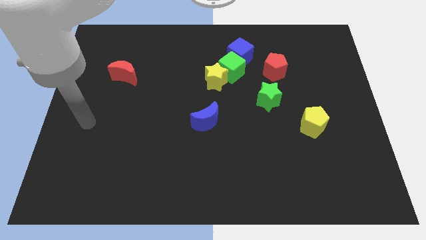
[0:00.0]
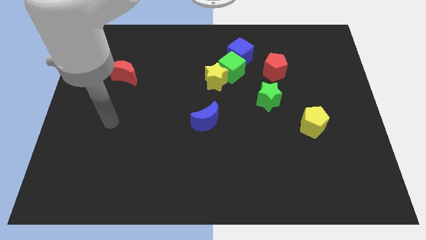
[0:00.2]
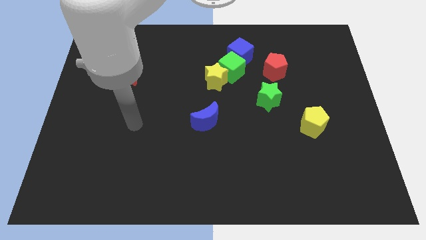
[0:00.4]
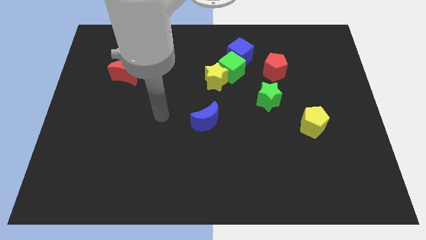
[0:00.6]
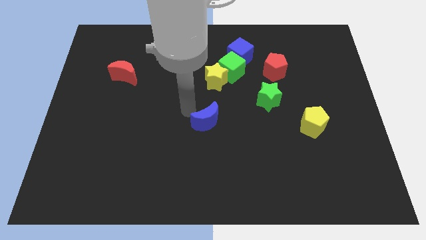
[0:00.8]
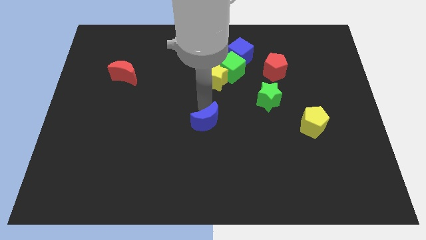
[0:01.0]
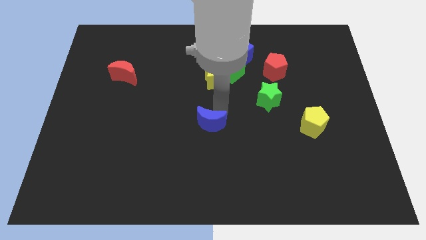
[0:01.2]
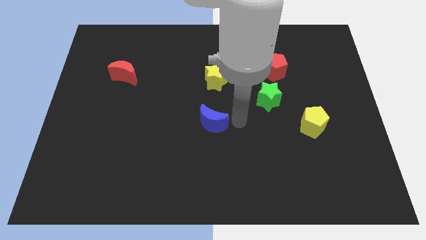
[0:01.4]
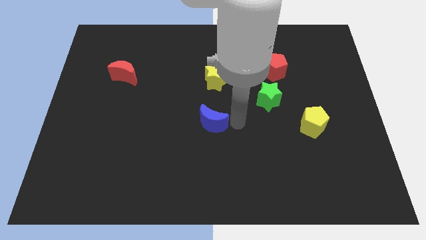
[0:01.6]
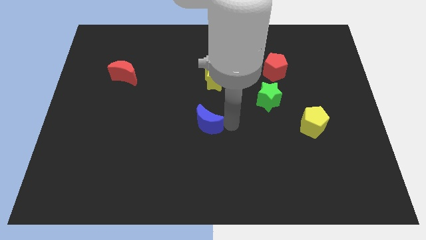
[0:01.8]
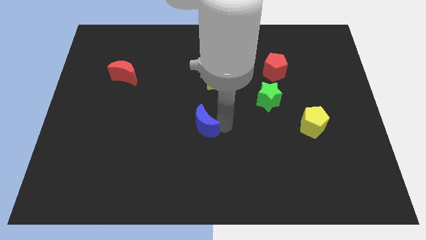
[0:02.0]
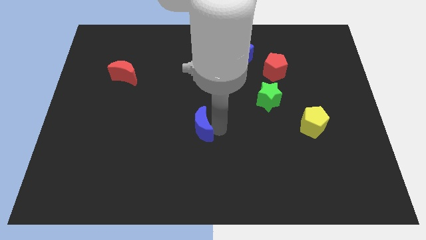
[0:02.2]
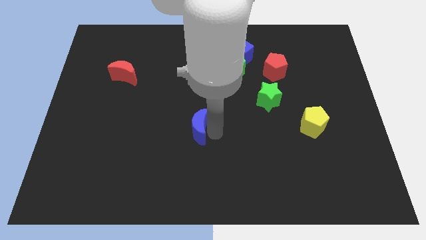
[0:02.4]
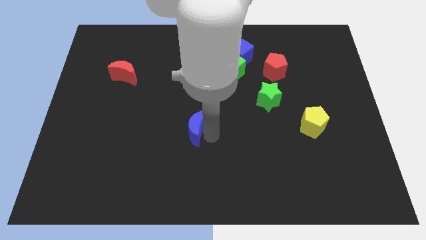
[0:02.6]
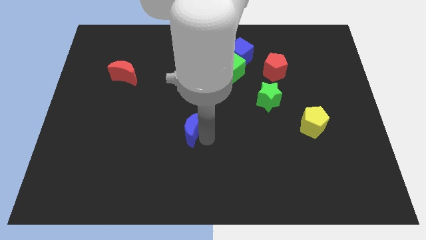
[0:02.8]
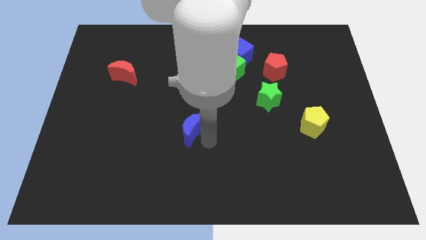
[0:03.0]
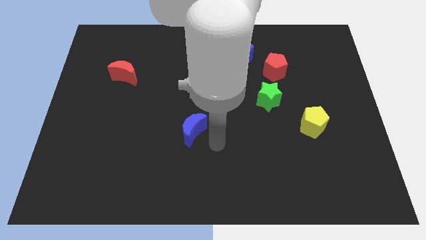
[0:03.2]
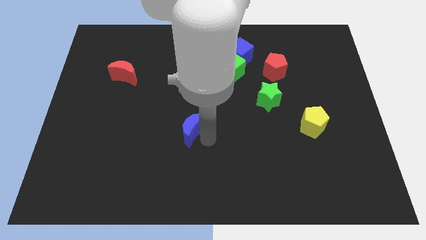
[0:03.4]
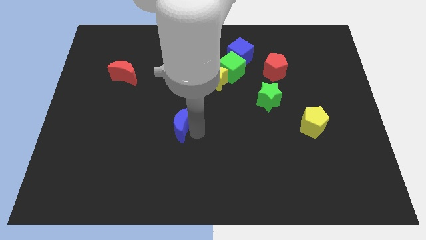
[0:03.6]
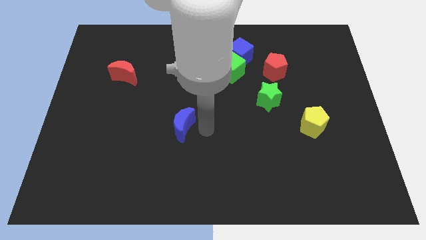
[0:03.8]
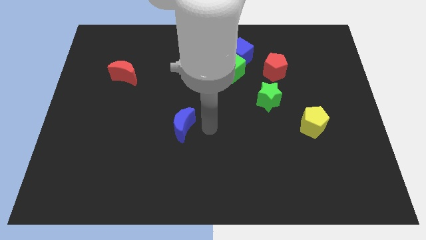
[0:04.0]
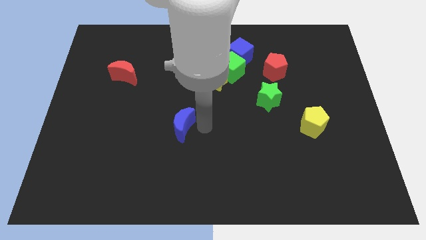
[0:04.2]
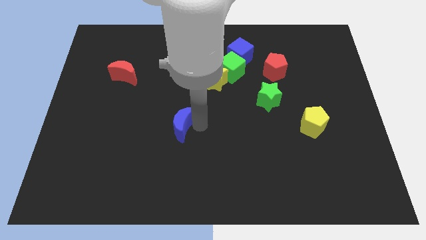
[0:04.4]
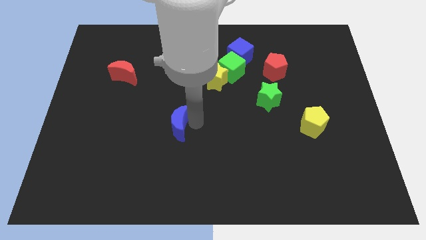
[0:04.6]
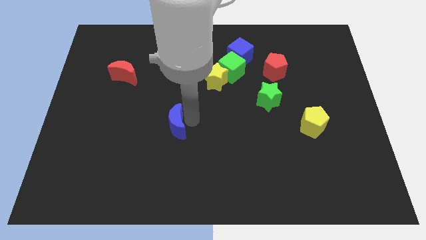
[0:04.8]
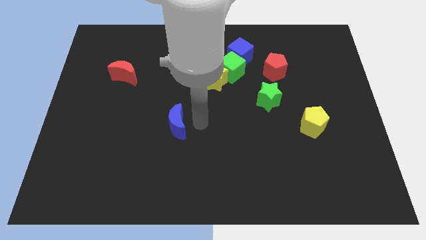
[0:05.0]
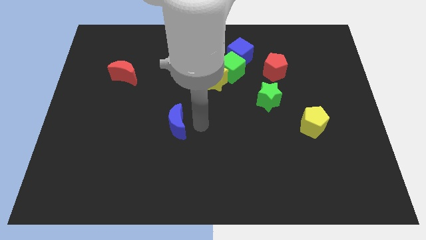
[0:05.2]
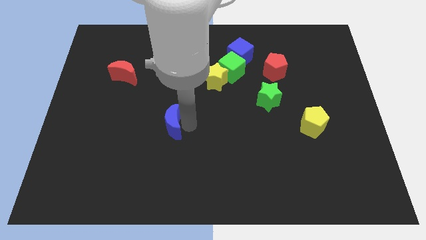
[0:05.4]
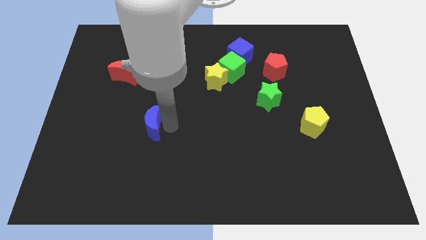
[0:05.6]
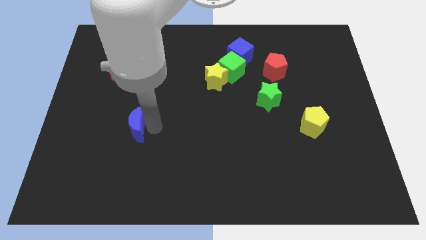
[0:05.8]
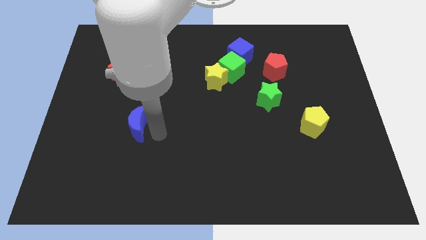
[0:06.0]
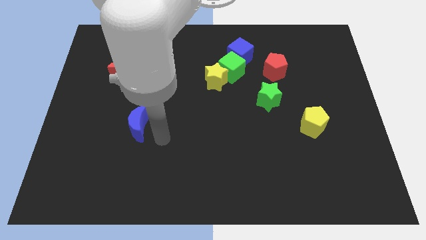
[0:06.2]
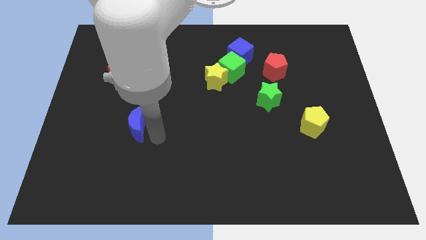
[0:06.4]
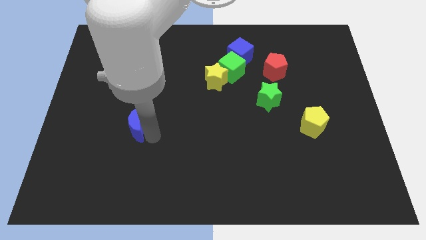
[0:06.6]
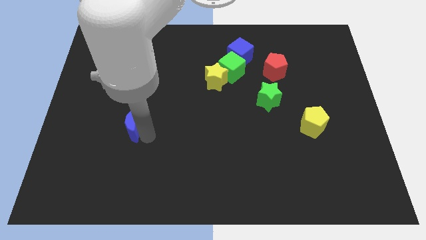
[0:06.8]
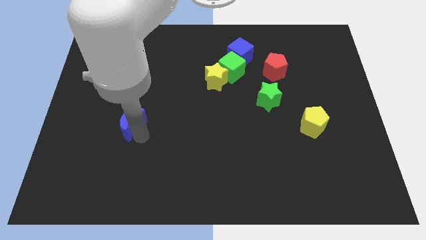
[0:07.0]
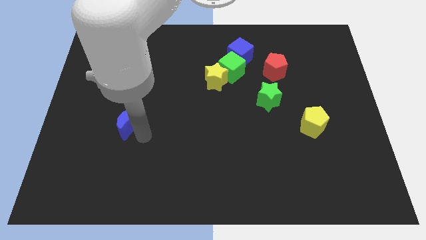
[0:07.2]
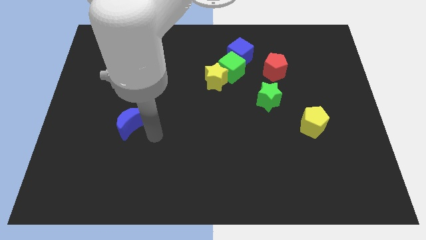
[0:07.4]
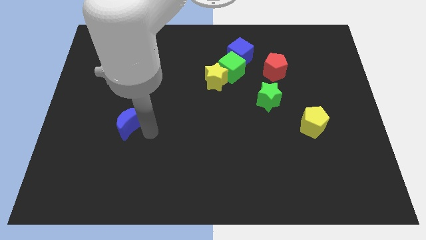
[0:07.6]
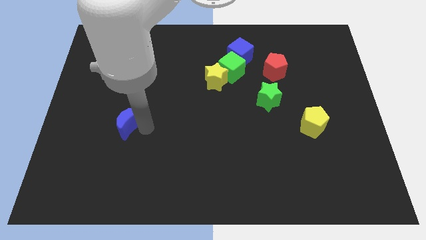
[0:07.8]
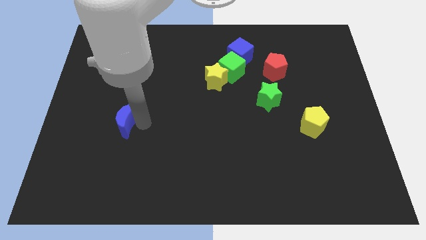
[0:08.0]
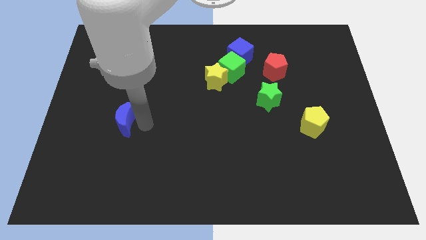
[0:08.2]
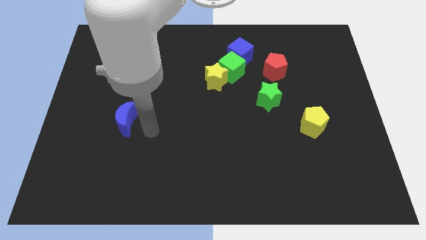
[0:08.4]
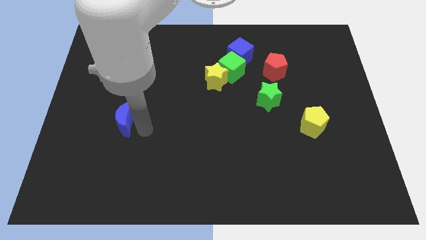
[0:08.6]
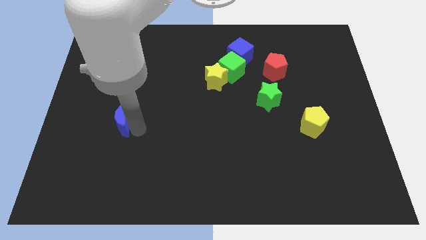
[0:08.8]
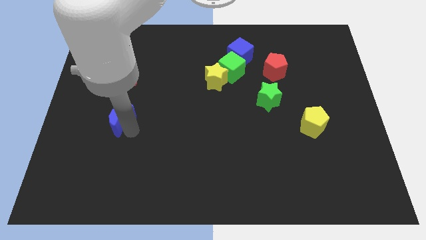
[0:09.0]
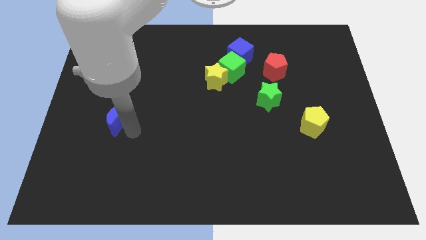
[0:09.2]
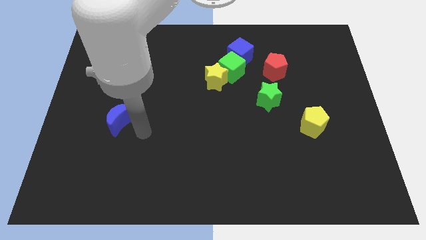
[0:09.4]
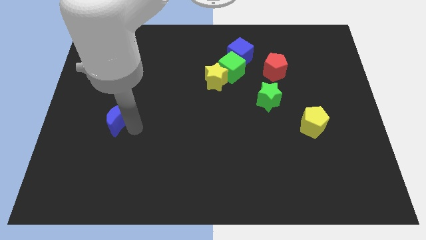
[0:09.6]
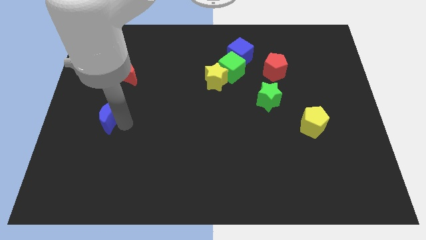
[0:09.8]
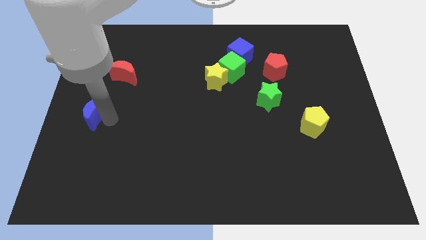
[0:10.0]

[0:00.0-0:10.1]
move the blue moon to the left side of the board

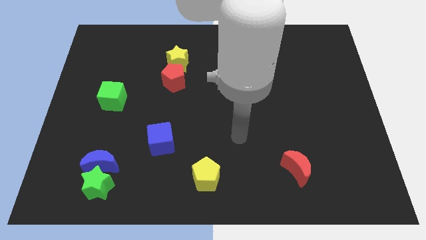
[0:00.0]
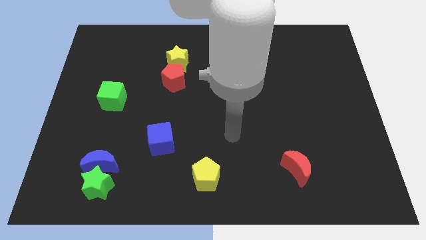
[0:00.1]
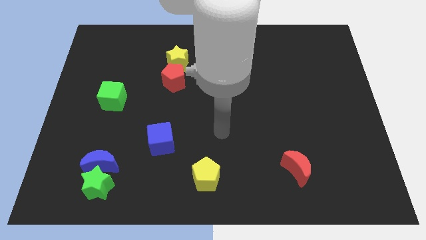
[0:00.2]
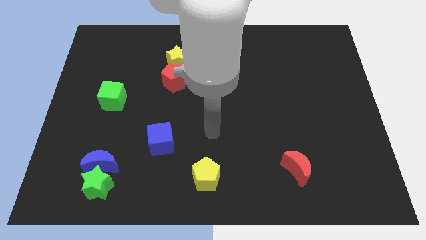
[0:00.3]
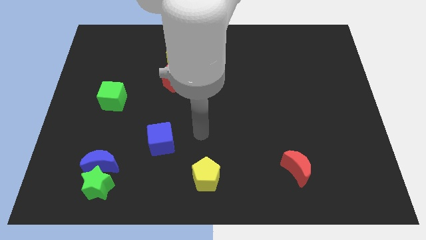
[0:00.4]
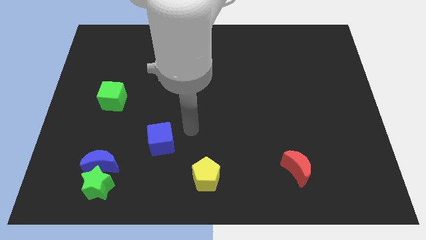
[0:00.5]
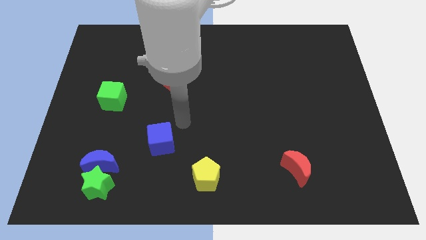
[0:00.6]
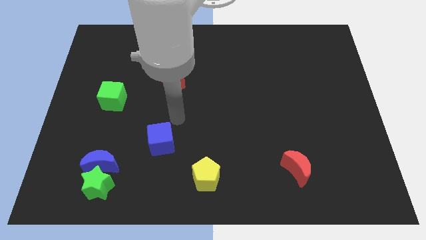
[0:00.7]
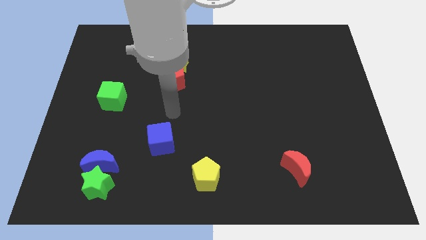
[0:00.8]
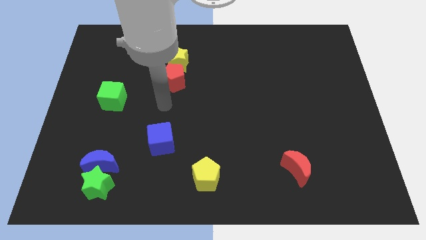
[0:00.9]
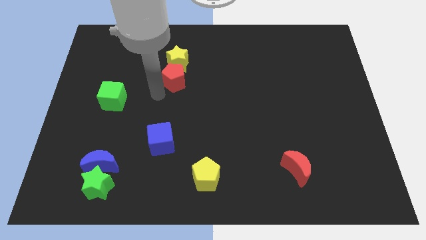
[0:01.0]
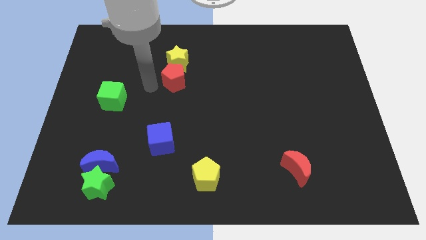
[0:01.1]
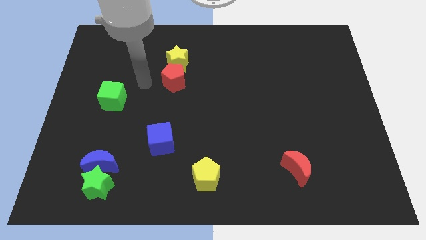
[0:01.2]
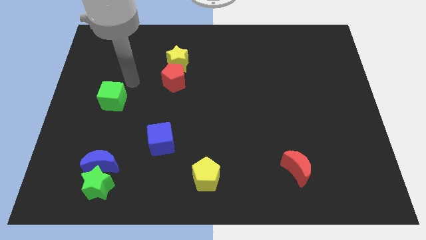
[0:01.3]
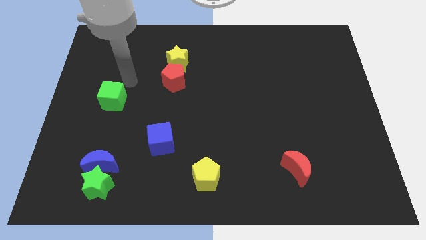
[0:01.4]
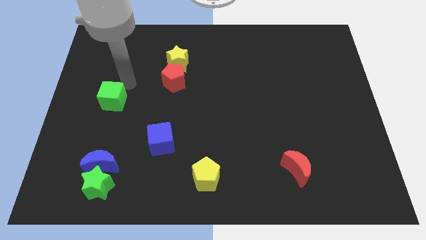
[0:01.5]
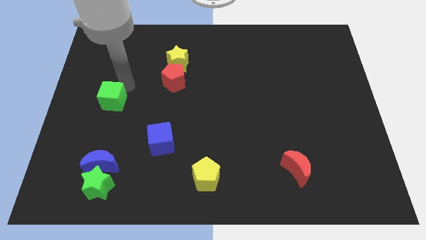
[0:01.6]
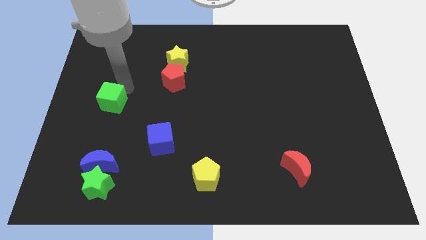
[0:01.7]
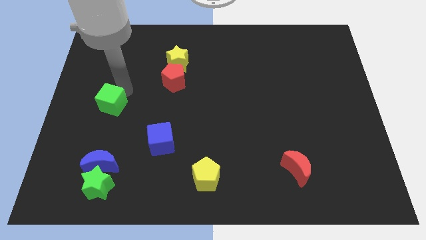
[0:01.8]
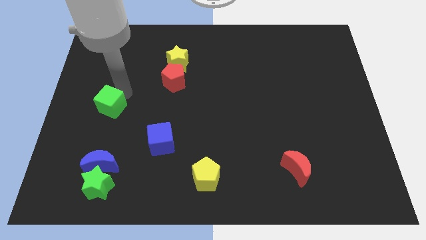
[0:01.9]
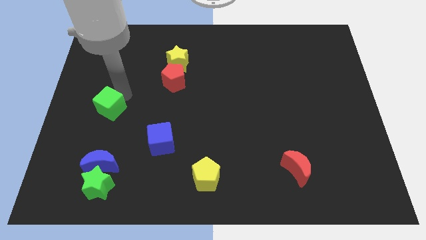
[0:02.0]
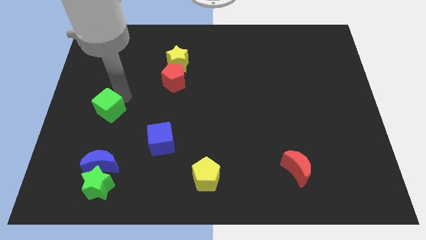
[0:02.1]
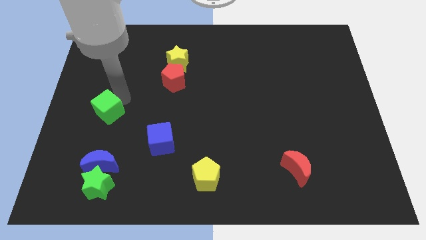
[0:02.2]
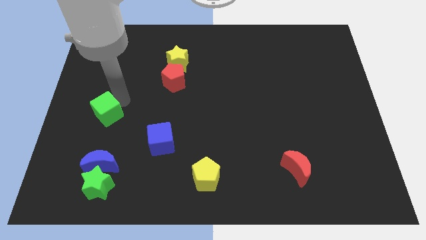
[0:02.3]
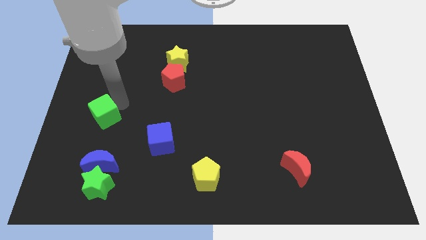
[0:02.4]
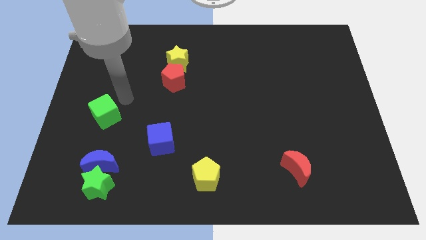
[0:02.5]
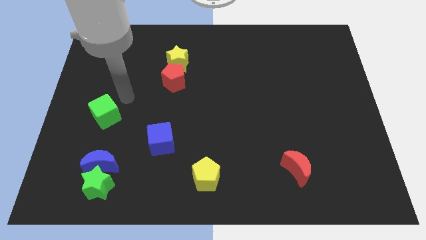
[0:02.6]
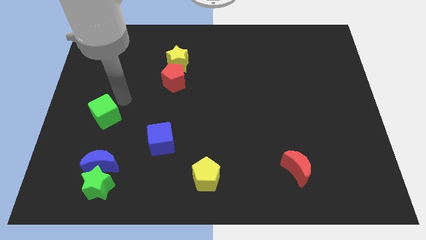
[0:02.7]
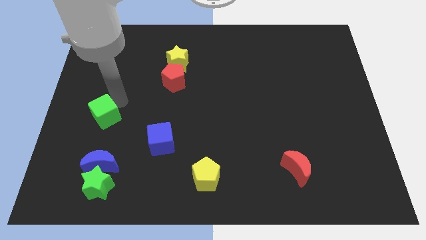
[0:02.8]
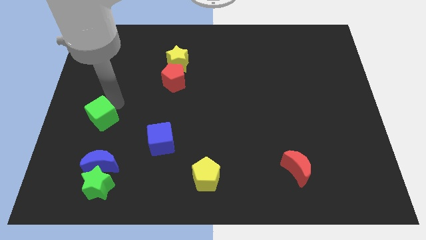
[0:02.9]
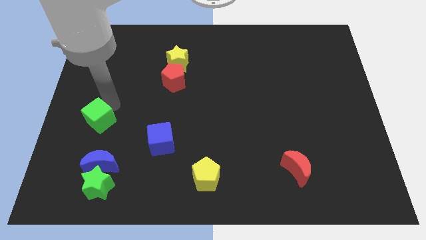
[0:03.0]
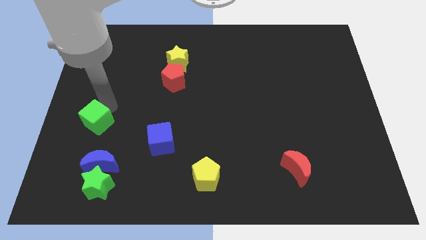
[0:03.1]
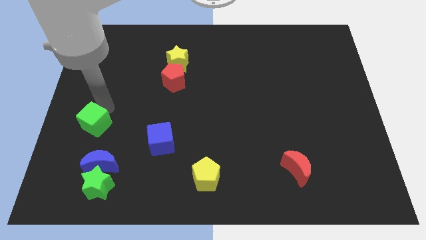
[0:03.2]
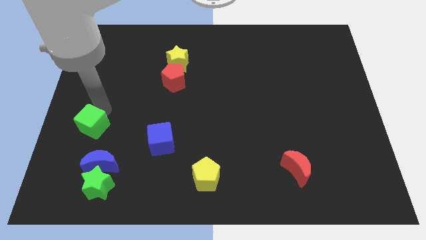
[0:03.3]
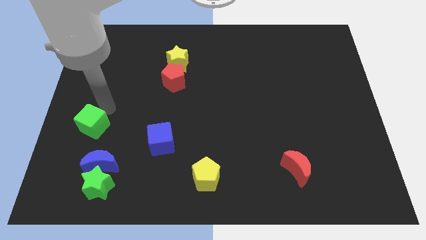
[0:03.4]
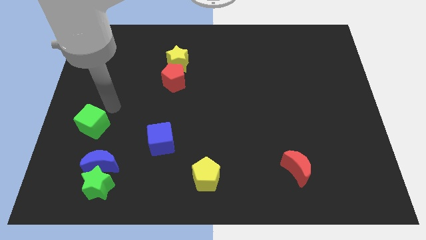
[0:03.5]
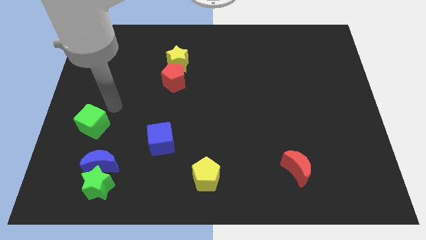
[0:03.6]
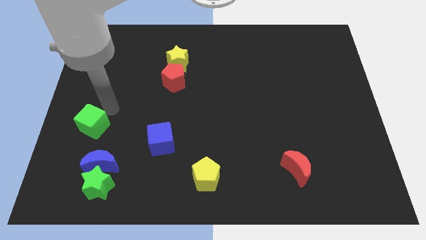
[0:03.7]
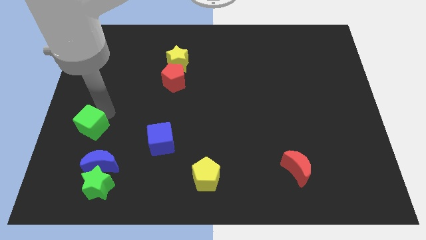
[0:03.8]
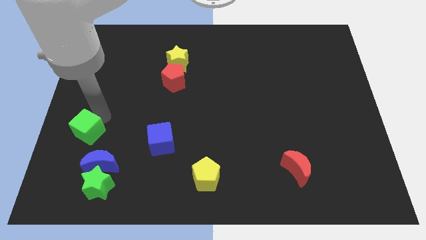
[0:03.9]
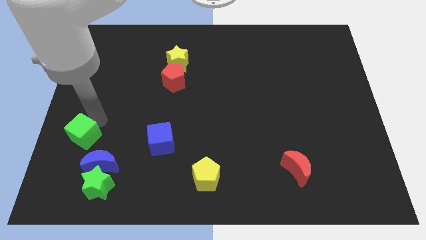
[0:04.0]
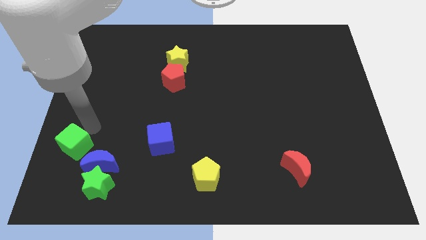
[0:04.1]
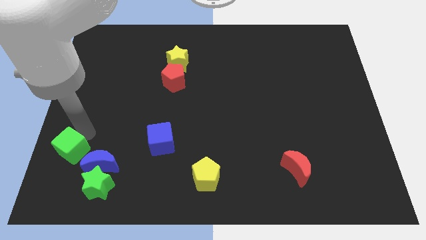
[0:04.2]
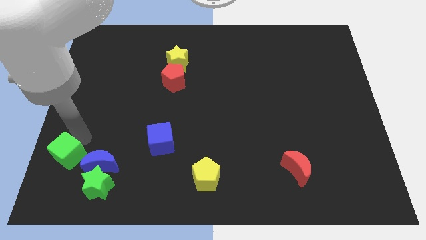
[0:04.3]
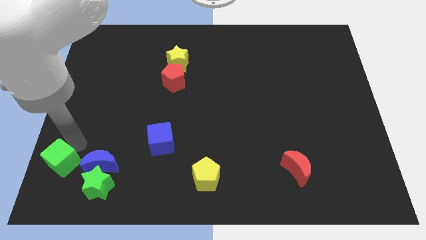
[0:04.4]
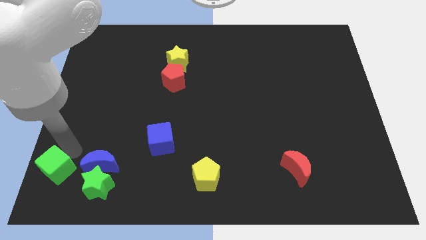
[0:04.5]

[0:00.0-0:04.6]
move the green cube to the bottom left of the board
